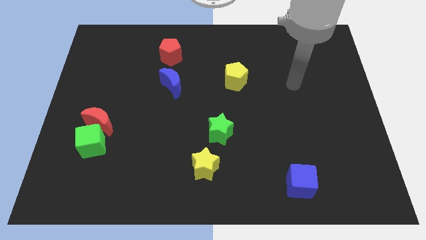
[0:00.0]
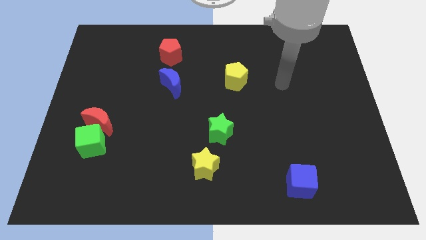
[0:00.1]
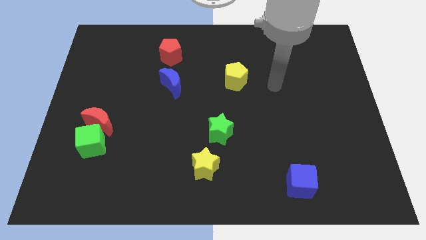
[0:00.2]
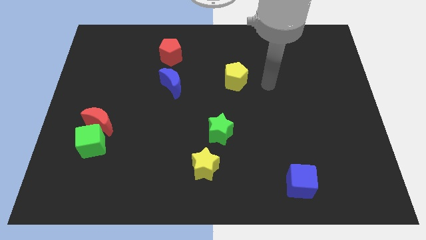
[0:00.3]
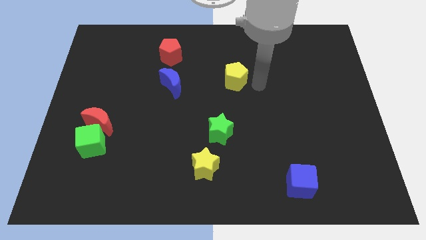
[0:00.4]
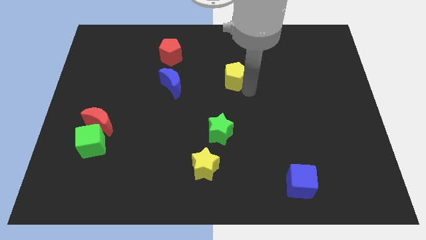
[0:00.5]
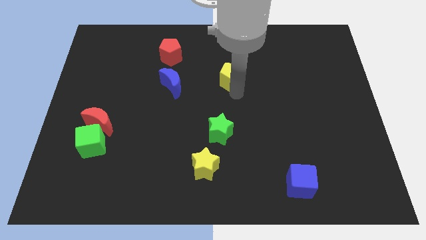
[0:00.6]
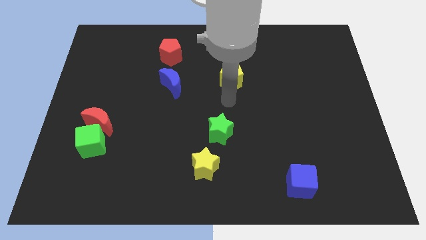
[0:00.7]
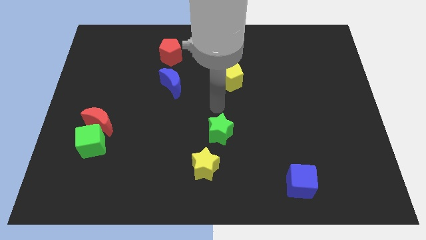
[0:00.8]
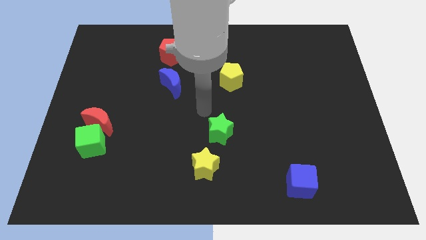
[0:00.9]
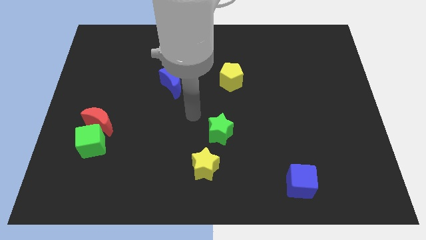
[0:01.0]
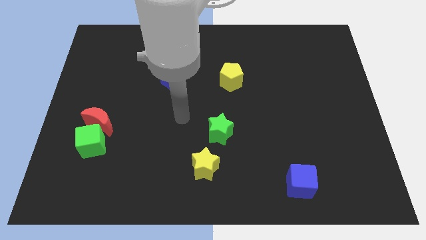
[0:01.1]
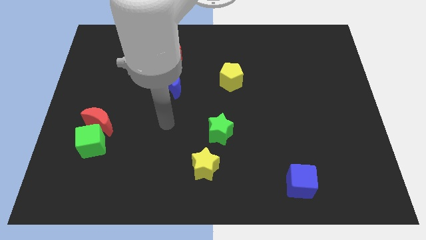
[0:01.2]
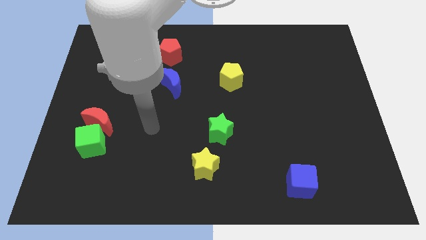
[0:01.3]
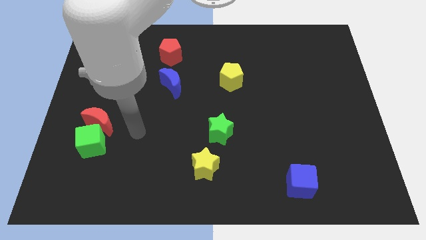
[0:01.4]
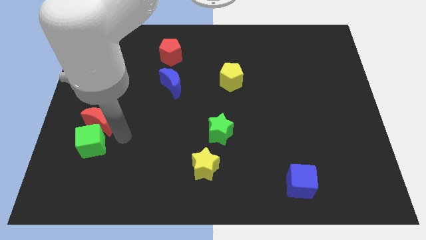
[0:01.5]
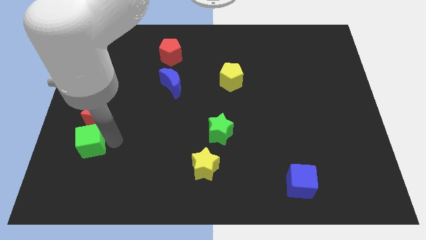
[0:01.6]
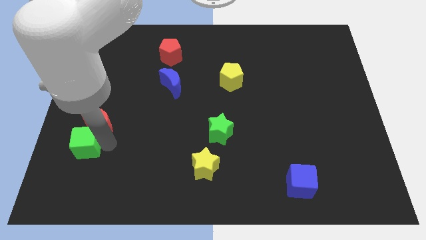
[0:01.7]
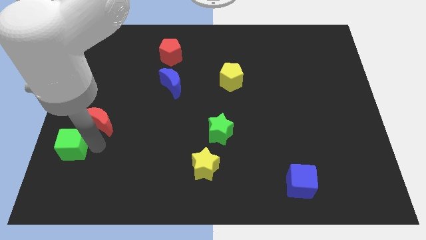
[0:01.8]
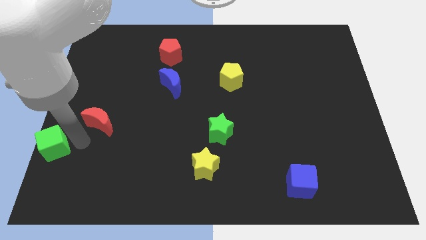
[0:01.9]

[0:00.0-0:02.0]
move the red moon away from the green cube

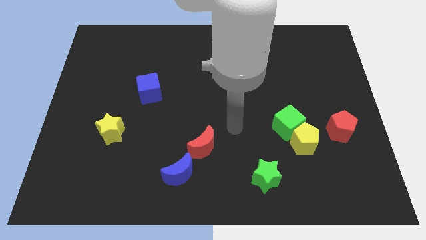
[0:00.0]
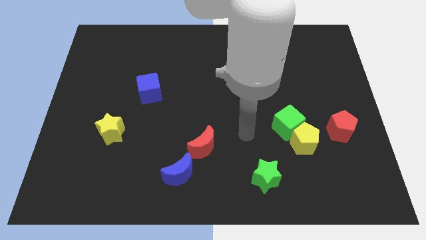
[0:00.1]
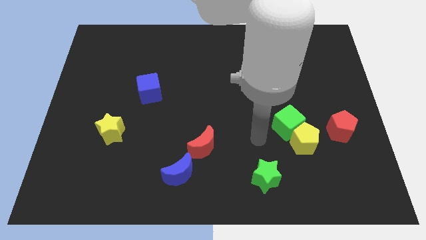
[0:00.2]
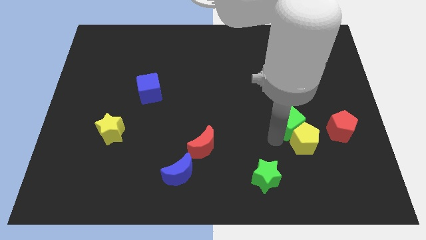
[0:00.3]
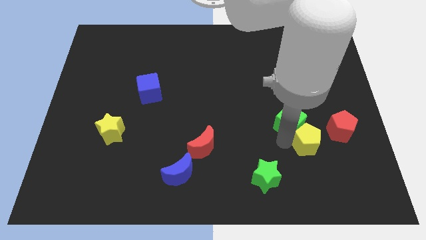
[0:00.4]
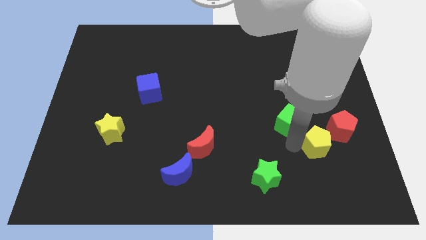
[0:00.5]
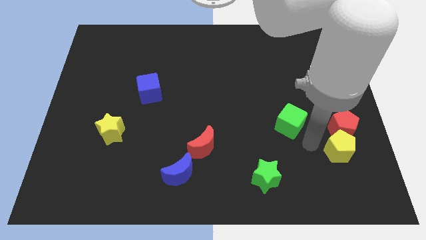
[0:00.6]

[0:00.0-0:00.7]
separate the green cube from the yellow pentagon

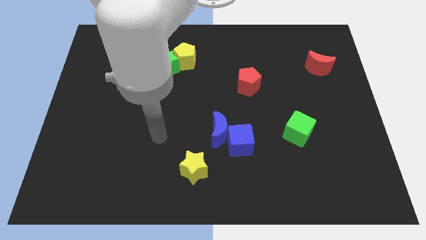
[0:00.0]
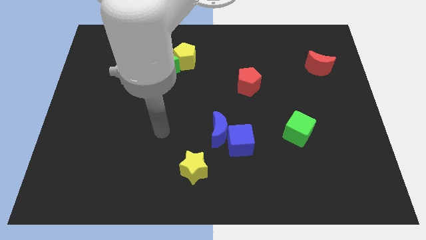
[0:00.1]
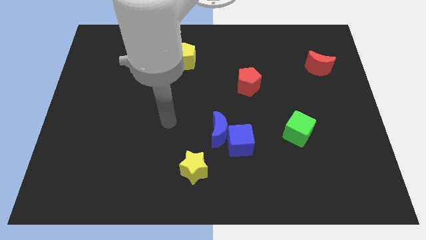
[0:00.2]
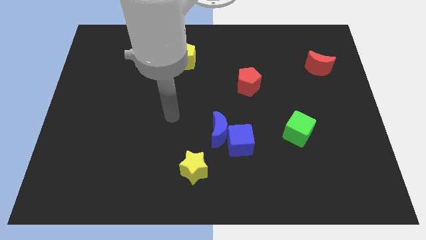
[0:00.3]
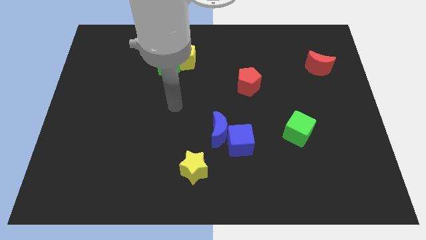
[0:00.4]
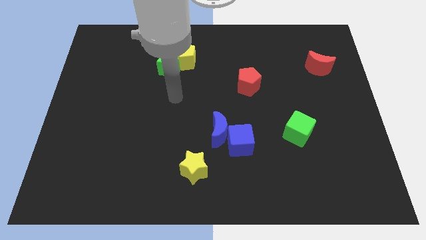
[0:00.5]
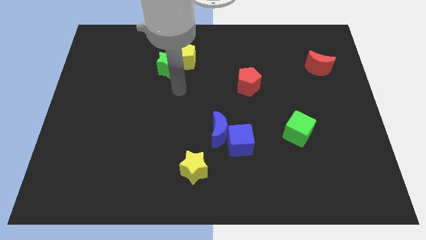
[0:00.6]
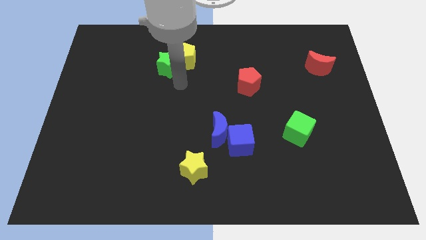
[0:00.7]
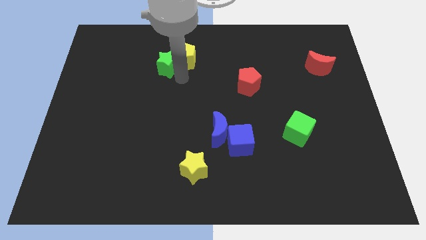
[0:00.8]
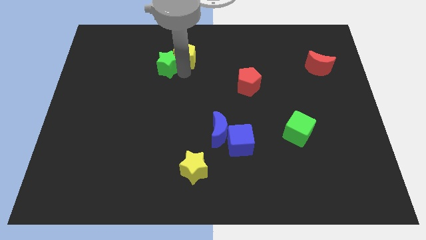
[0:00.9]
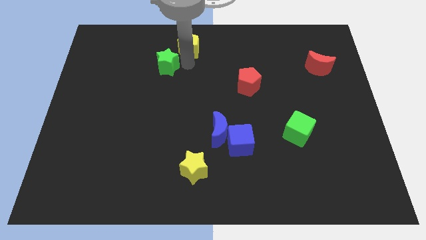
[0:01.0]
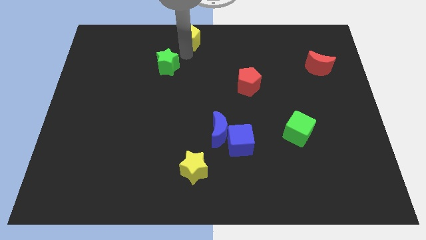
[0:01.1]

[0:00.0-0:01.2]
pull the green star apart from the yellow pentagon

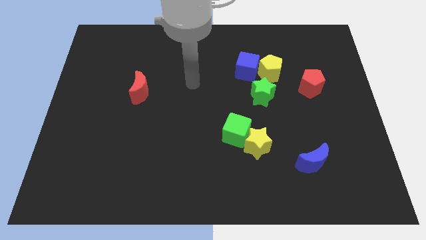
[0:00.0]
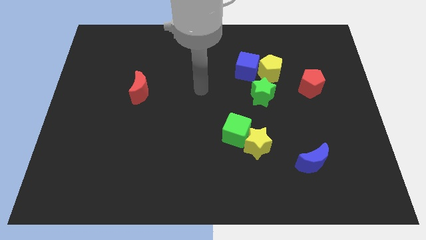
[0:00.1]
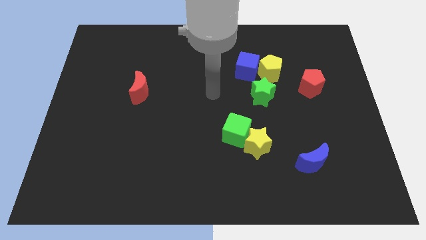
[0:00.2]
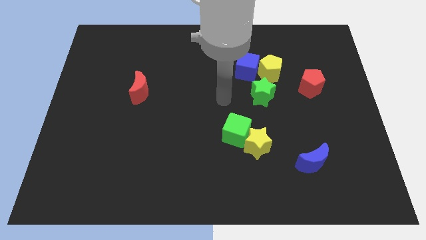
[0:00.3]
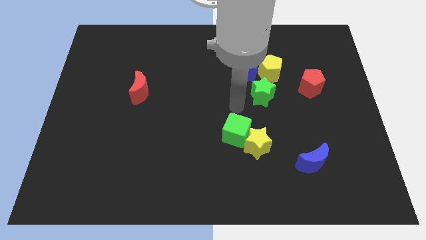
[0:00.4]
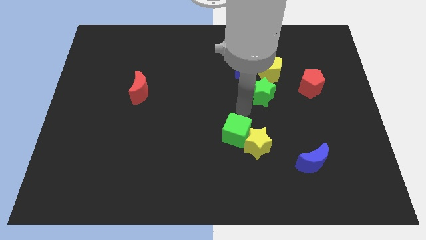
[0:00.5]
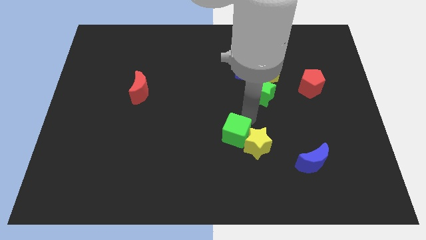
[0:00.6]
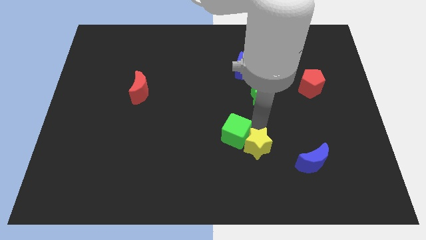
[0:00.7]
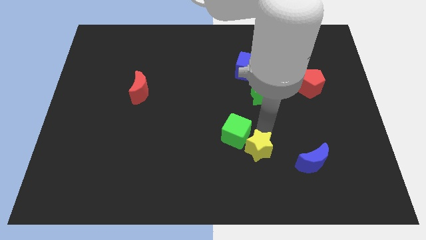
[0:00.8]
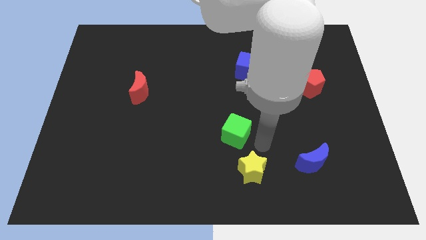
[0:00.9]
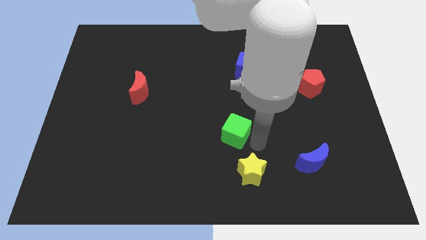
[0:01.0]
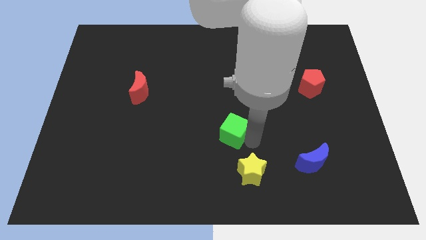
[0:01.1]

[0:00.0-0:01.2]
pull the green cube apart from the yellow star

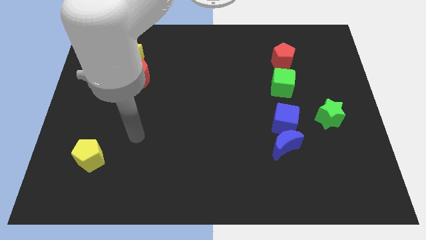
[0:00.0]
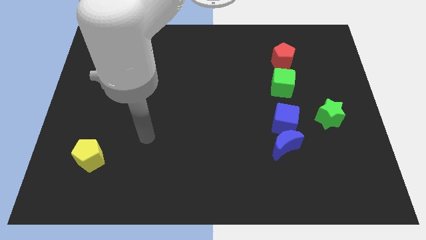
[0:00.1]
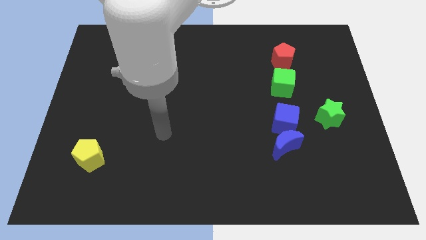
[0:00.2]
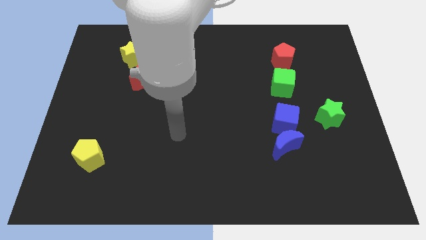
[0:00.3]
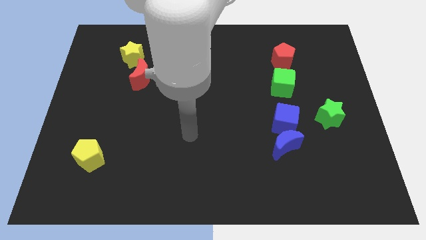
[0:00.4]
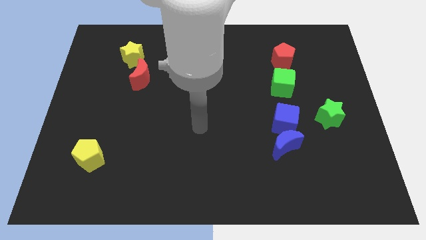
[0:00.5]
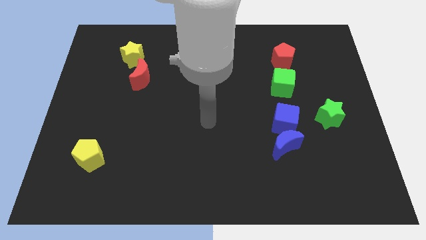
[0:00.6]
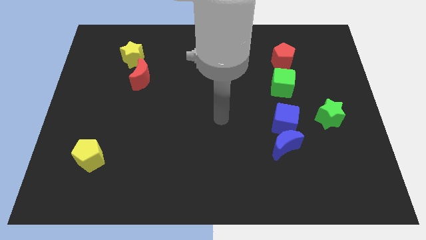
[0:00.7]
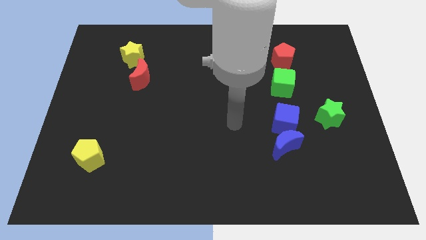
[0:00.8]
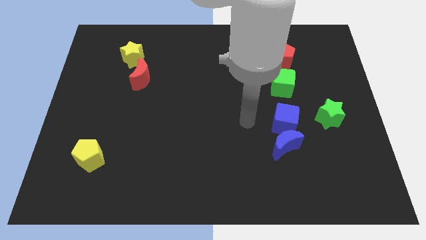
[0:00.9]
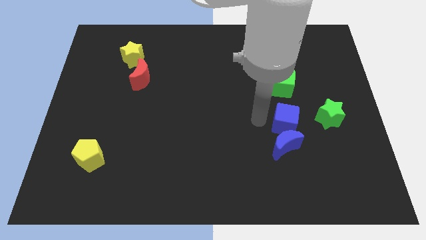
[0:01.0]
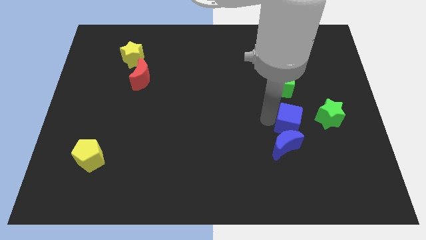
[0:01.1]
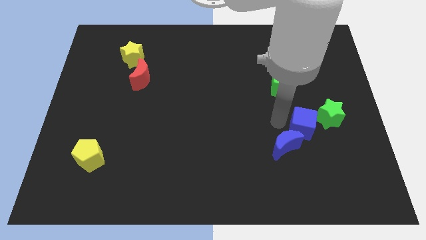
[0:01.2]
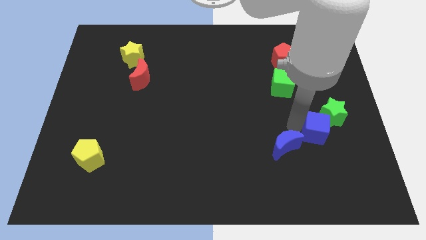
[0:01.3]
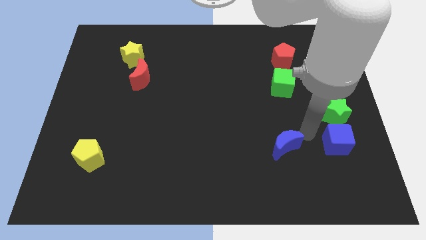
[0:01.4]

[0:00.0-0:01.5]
move the blue moon away from the blue cube

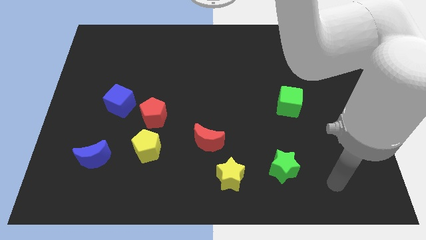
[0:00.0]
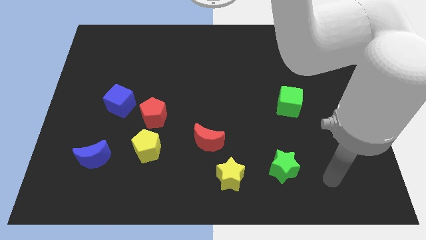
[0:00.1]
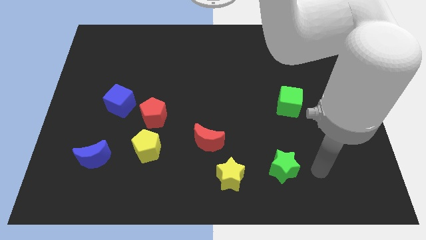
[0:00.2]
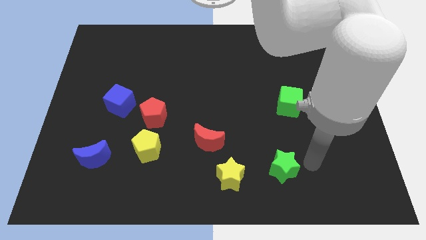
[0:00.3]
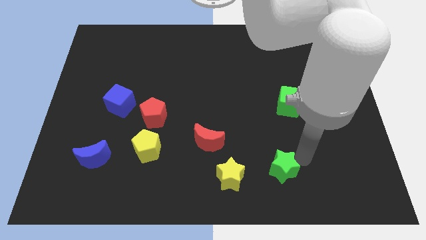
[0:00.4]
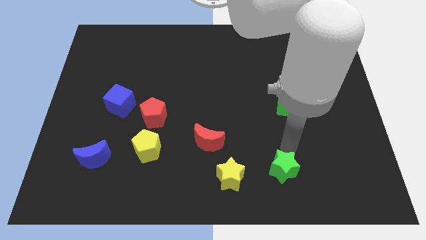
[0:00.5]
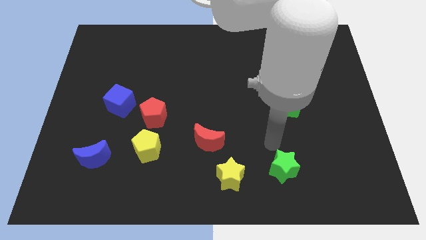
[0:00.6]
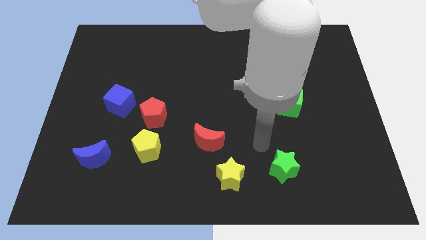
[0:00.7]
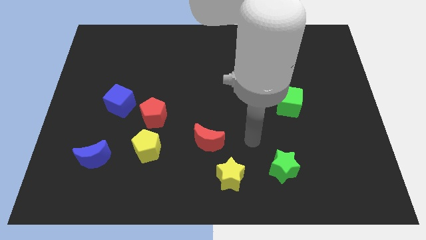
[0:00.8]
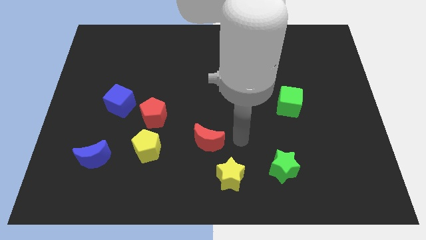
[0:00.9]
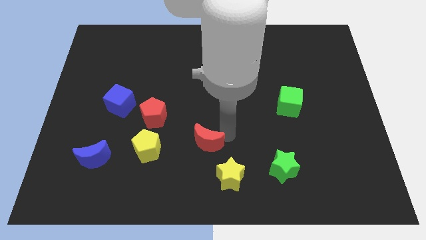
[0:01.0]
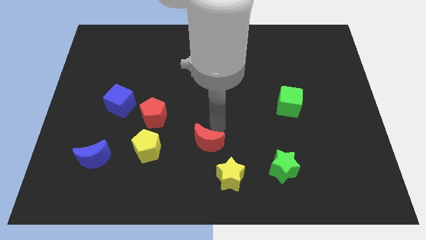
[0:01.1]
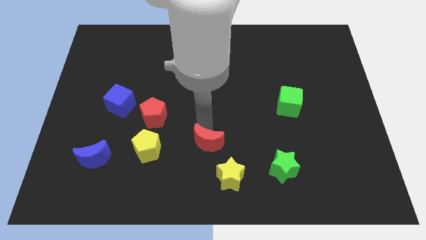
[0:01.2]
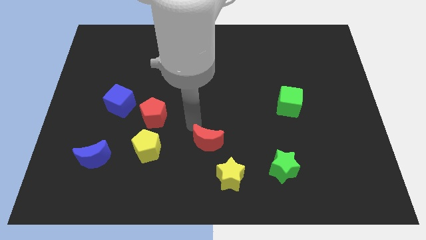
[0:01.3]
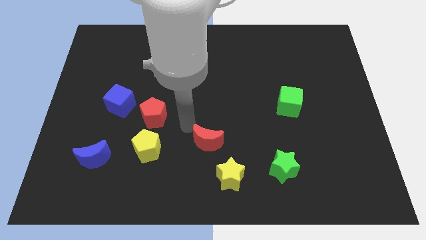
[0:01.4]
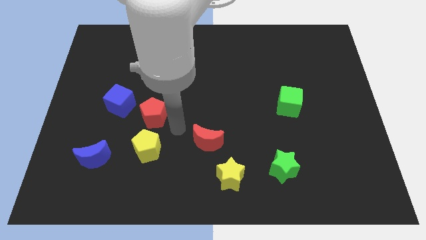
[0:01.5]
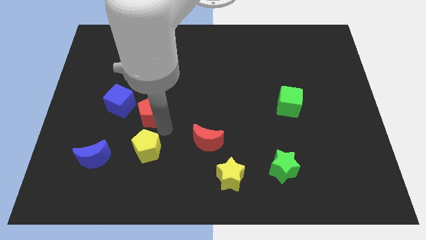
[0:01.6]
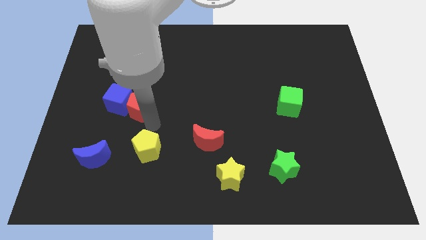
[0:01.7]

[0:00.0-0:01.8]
separate the yellow pentagon from the red pentagon

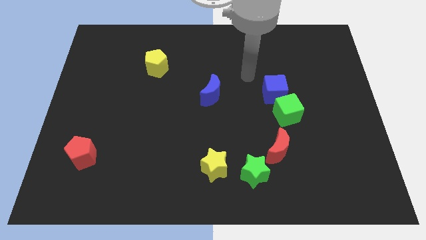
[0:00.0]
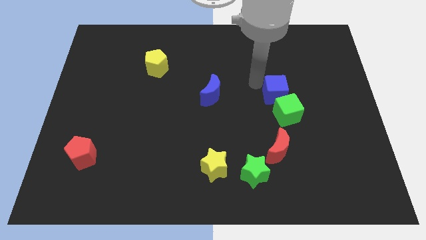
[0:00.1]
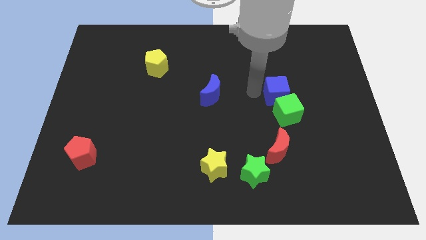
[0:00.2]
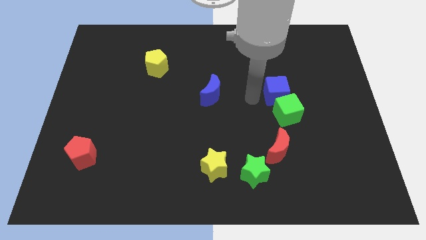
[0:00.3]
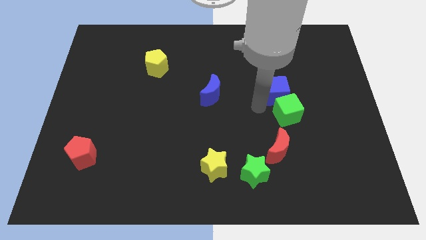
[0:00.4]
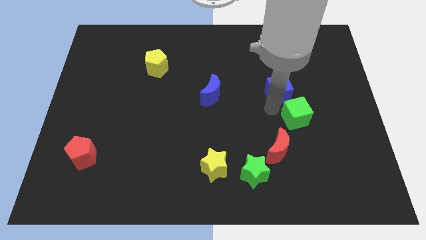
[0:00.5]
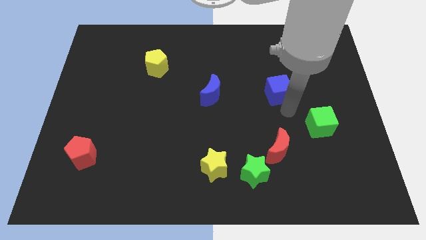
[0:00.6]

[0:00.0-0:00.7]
move the blue cube away from the green cube

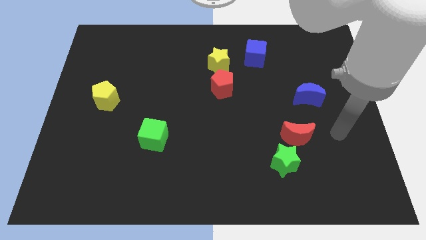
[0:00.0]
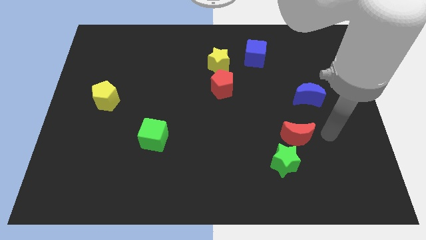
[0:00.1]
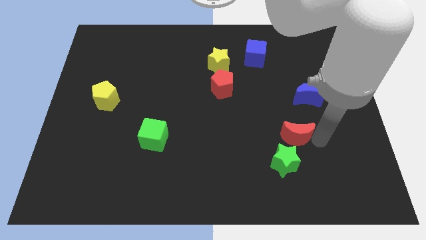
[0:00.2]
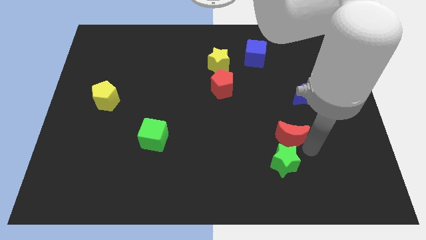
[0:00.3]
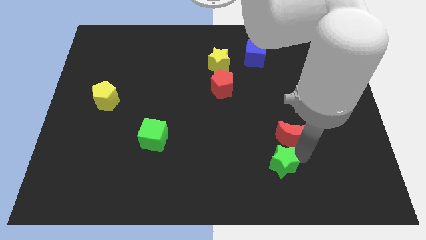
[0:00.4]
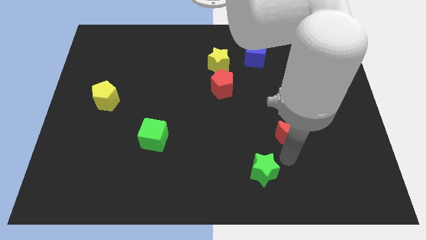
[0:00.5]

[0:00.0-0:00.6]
separate the red moon from the green star
